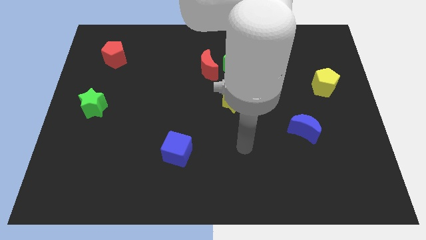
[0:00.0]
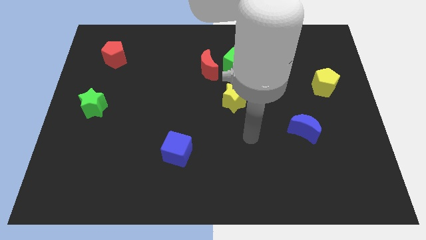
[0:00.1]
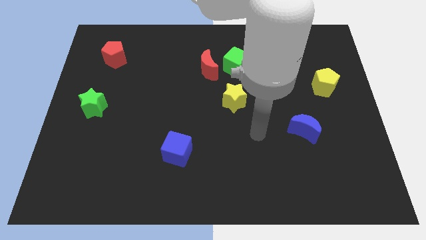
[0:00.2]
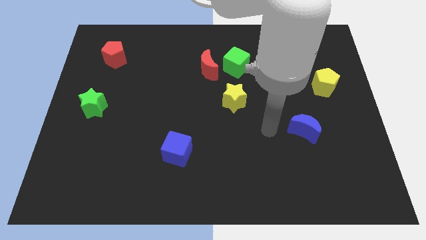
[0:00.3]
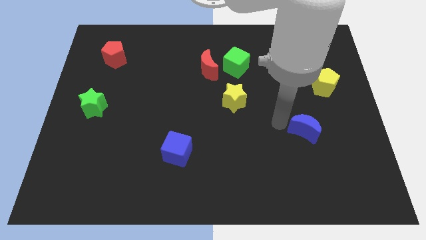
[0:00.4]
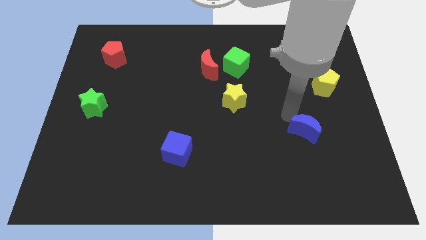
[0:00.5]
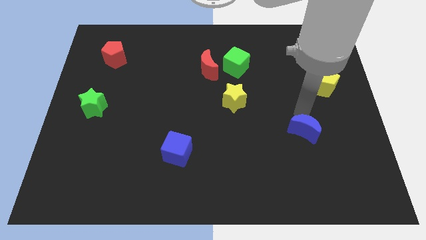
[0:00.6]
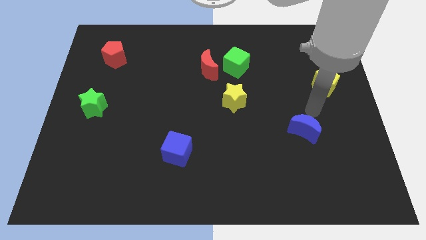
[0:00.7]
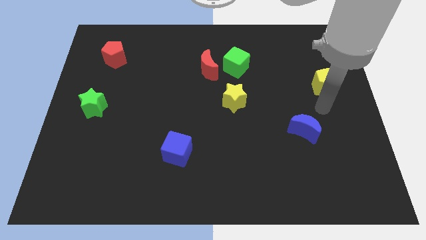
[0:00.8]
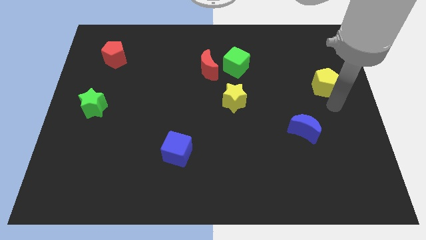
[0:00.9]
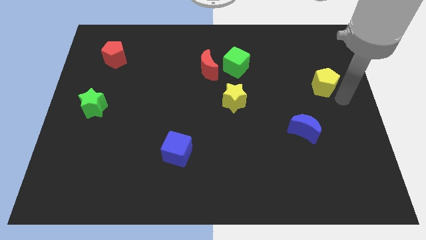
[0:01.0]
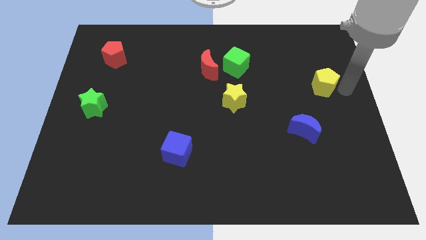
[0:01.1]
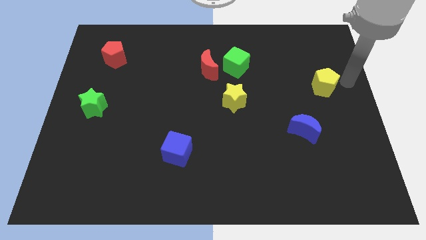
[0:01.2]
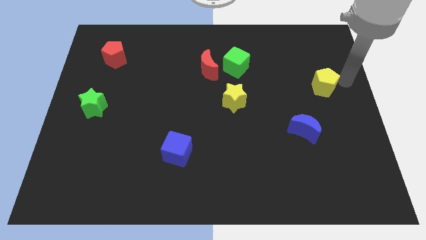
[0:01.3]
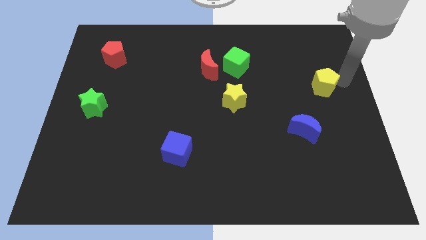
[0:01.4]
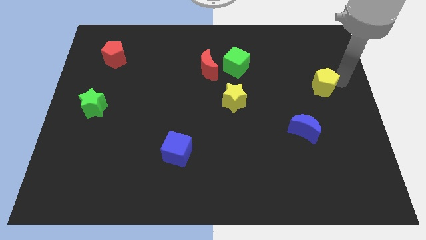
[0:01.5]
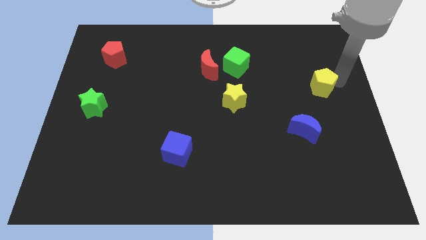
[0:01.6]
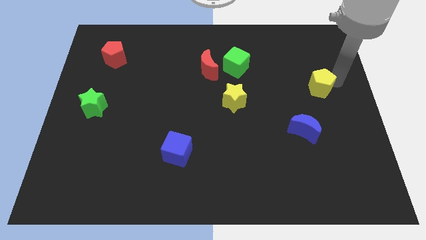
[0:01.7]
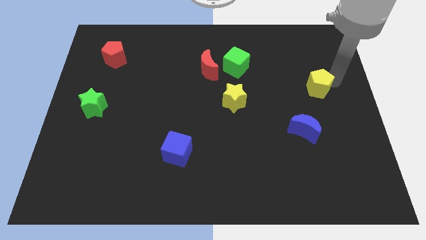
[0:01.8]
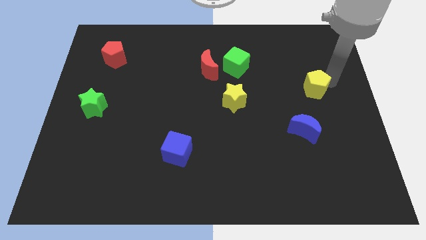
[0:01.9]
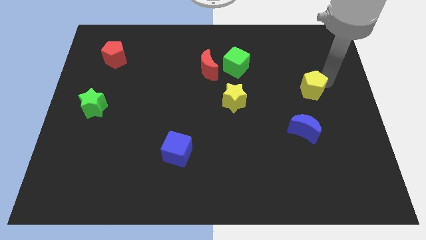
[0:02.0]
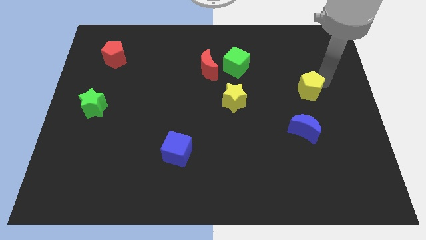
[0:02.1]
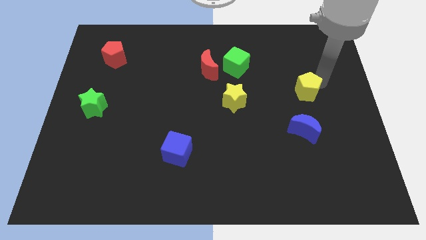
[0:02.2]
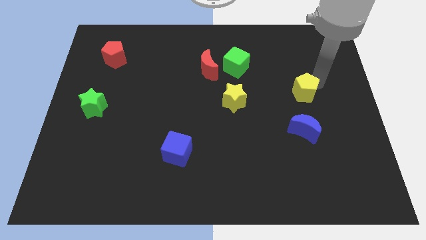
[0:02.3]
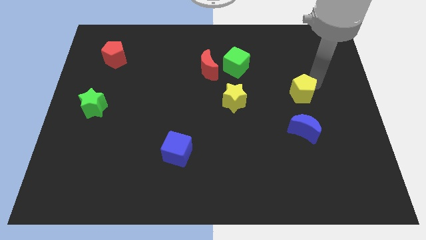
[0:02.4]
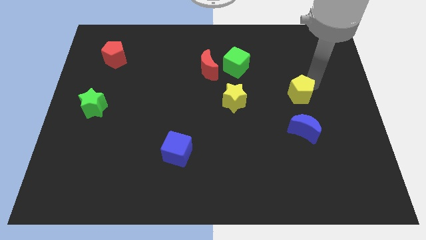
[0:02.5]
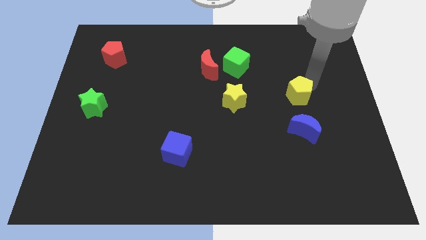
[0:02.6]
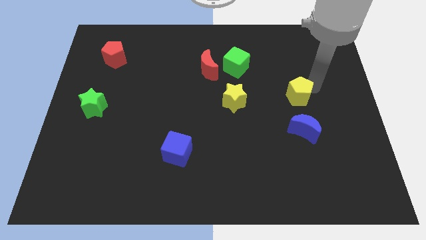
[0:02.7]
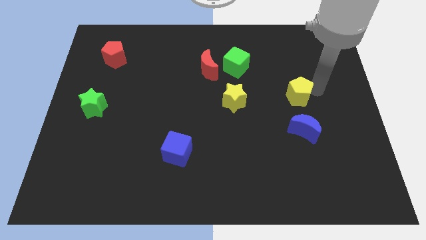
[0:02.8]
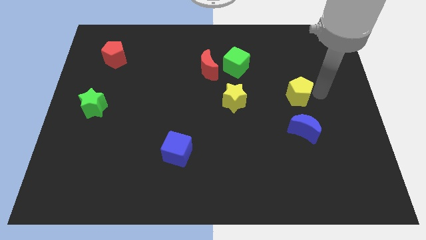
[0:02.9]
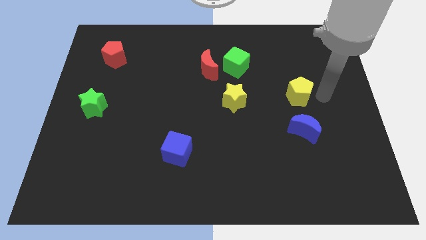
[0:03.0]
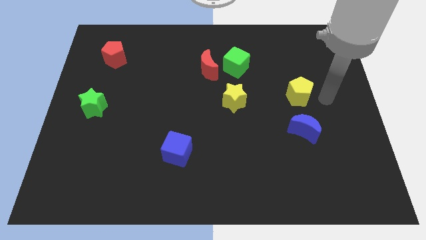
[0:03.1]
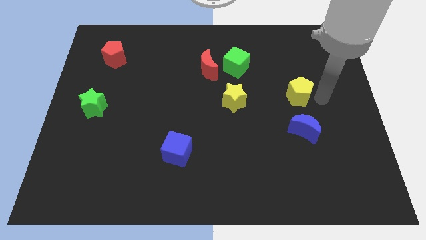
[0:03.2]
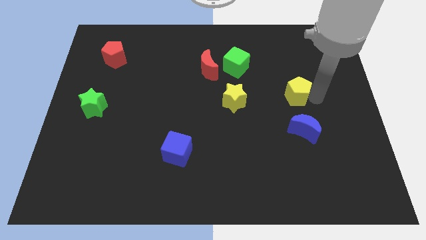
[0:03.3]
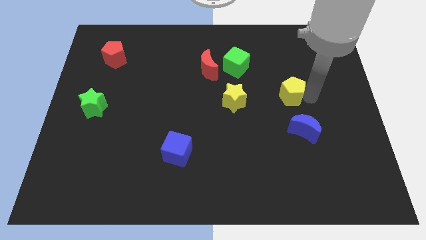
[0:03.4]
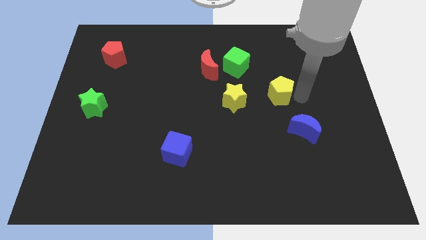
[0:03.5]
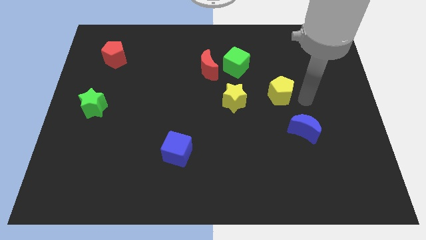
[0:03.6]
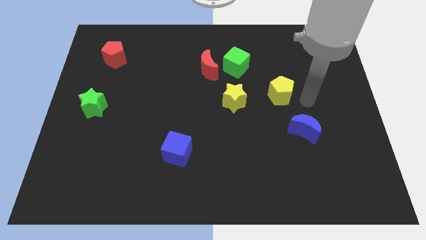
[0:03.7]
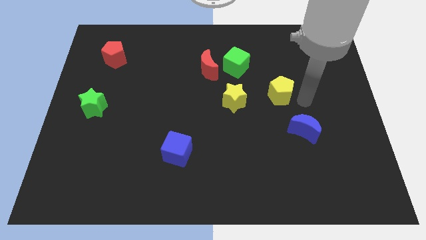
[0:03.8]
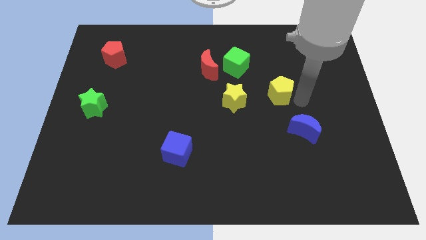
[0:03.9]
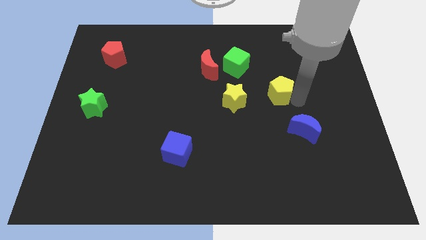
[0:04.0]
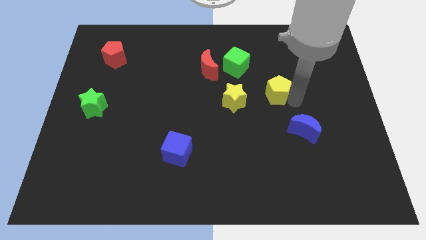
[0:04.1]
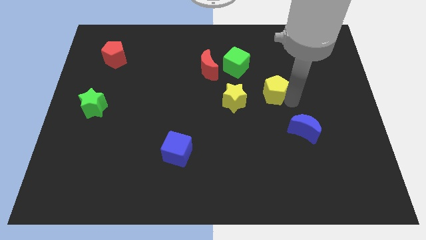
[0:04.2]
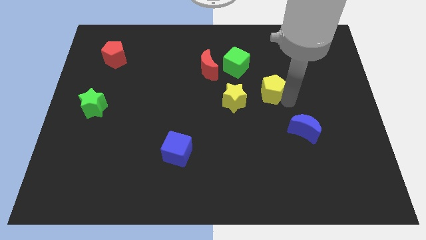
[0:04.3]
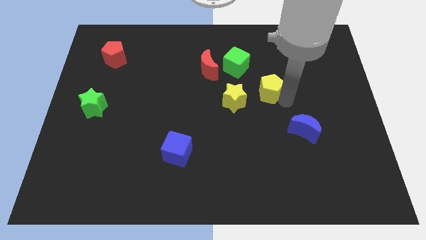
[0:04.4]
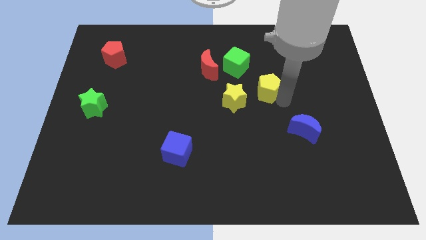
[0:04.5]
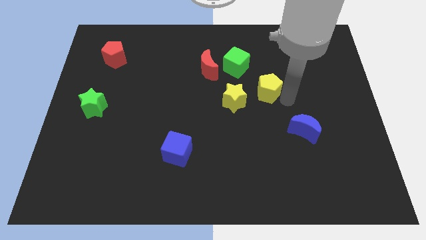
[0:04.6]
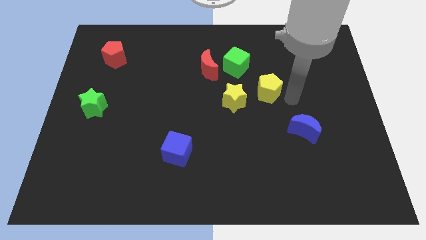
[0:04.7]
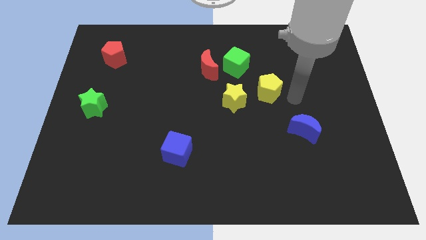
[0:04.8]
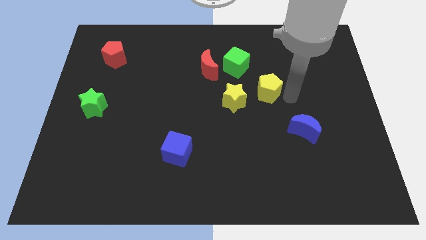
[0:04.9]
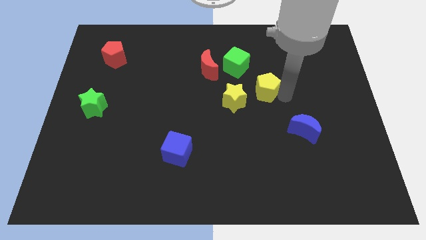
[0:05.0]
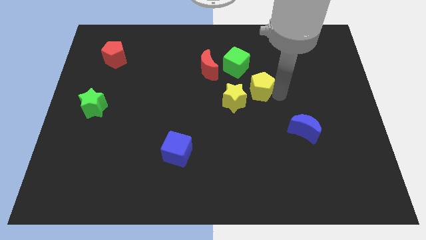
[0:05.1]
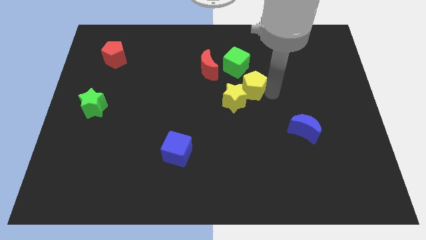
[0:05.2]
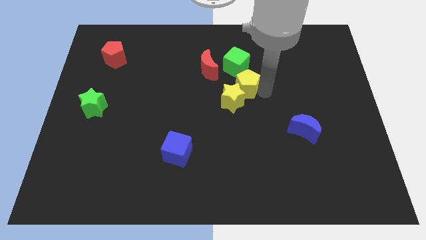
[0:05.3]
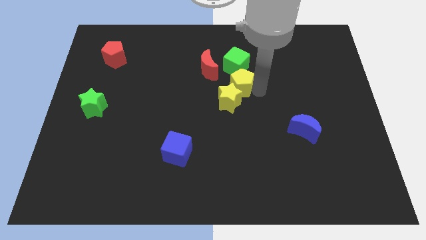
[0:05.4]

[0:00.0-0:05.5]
slide the yellow pentagon left

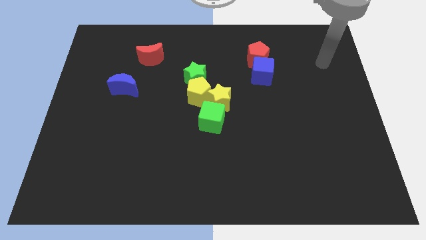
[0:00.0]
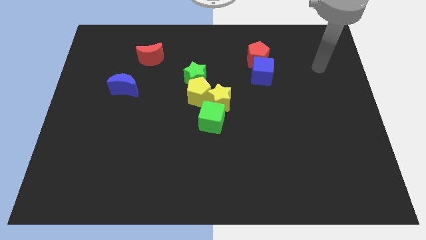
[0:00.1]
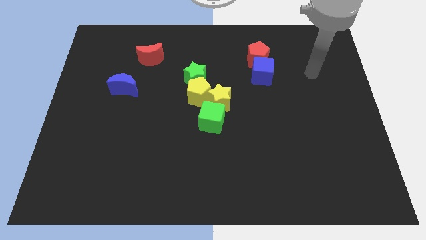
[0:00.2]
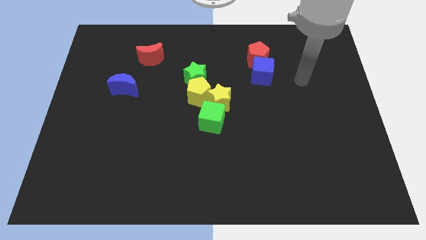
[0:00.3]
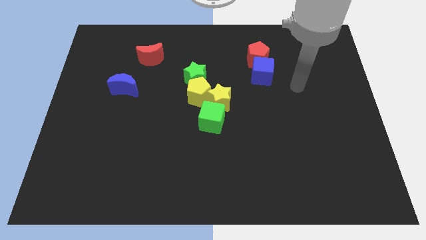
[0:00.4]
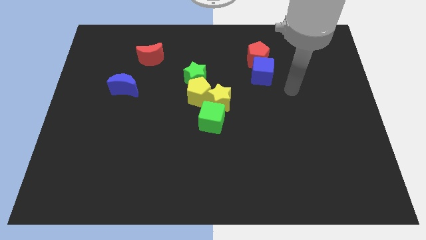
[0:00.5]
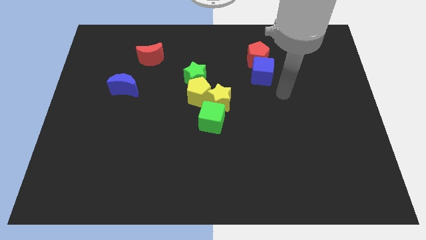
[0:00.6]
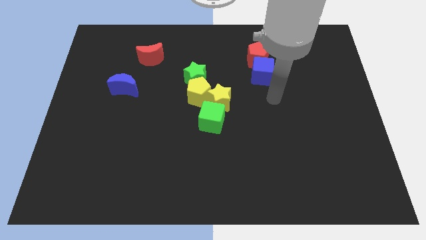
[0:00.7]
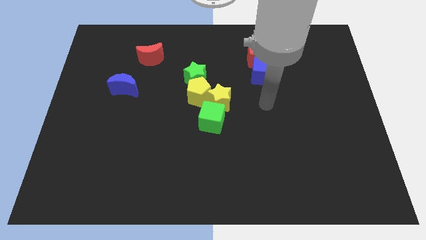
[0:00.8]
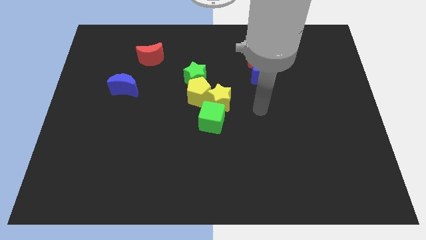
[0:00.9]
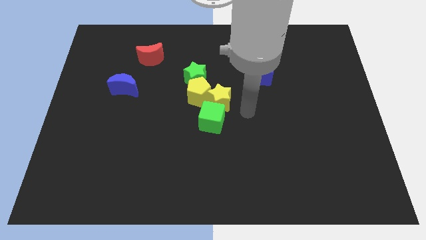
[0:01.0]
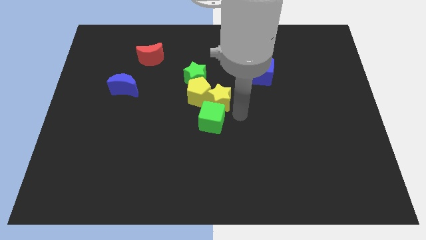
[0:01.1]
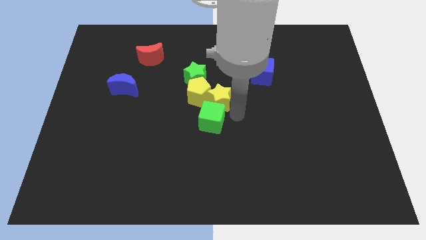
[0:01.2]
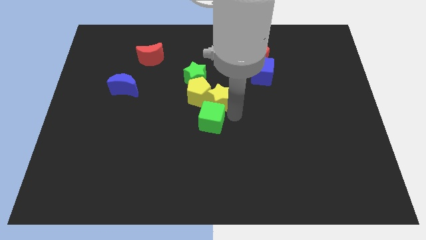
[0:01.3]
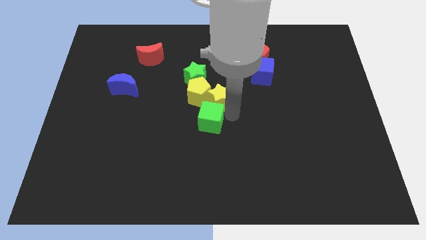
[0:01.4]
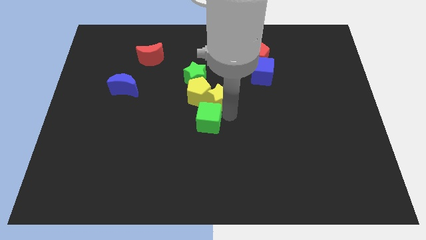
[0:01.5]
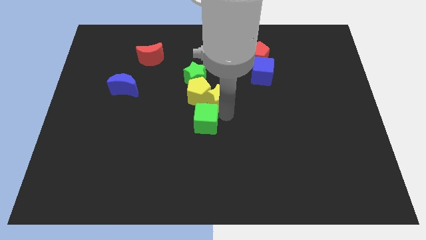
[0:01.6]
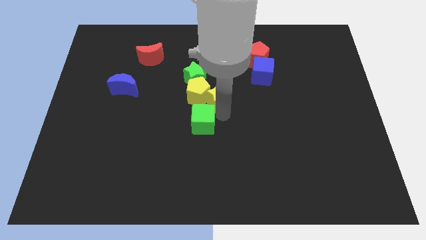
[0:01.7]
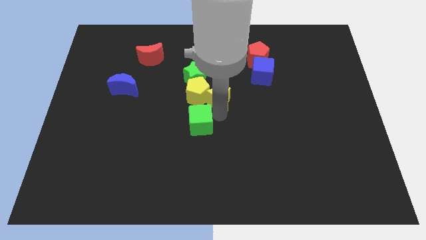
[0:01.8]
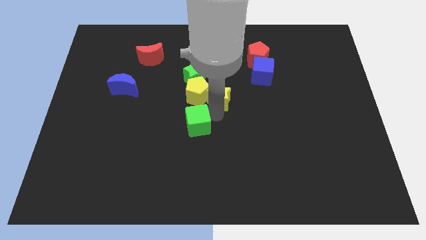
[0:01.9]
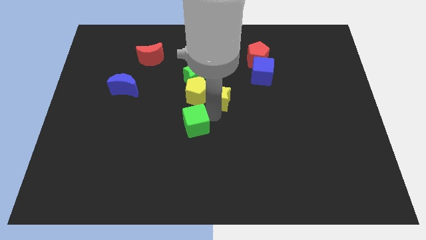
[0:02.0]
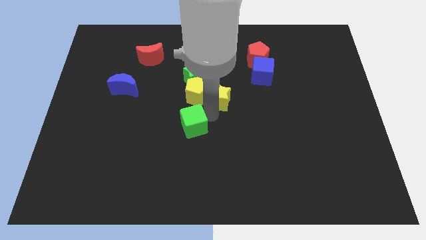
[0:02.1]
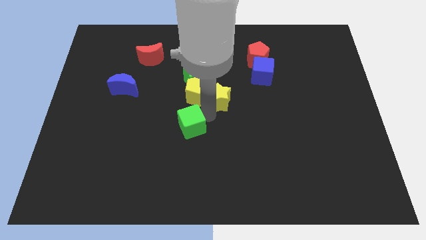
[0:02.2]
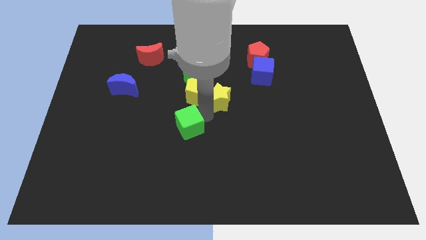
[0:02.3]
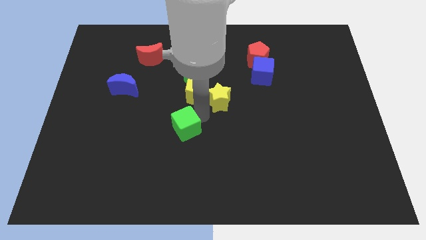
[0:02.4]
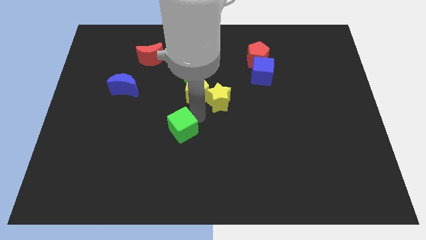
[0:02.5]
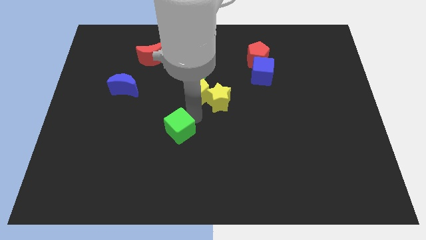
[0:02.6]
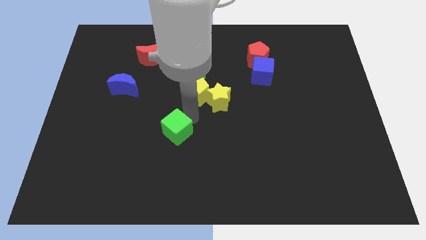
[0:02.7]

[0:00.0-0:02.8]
move the green cube downwards and to the left diagonally a little bit
